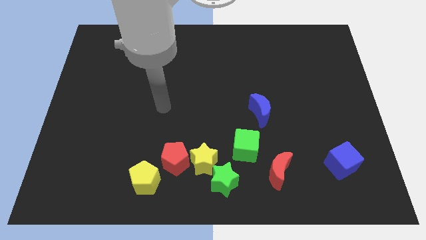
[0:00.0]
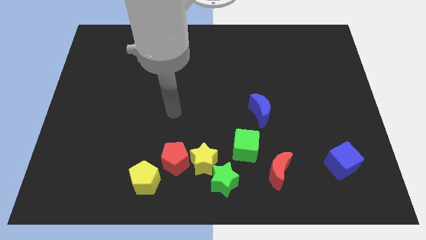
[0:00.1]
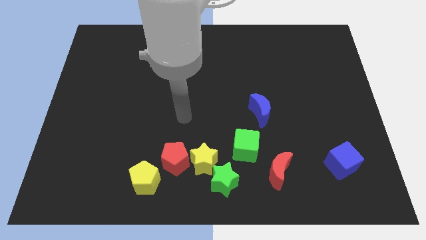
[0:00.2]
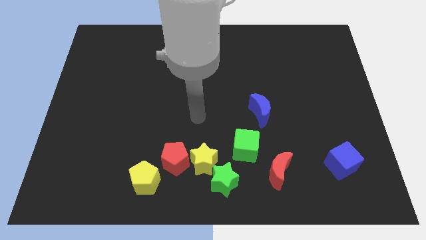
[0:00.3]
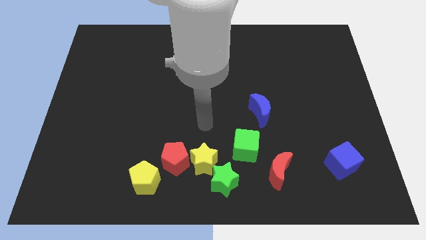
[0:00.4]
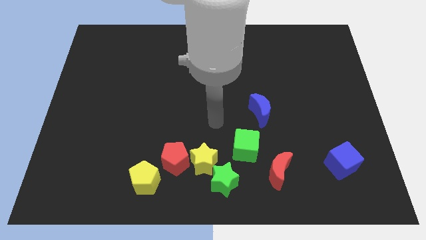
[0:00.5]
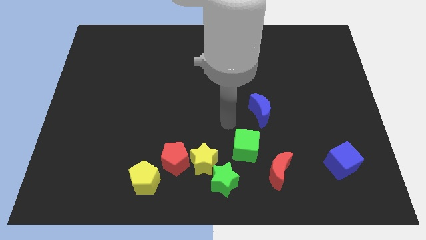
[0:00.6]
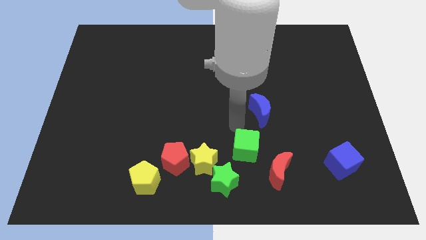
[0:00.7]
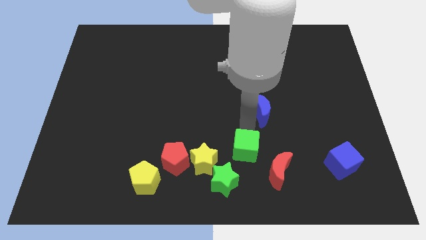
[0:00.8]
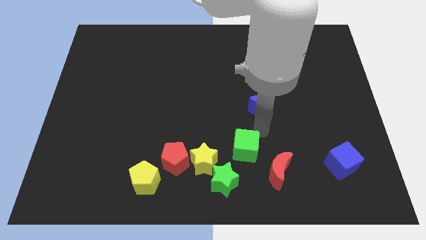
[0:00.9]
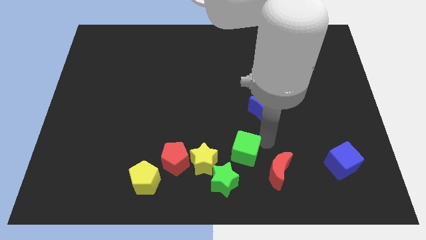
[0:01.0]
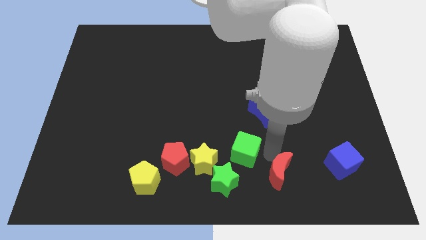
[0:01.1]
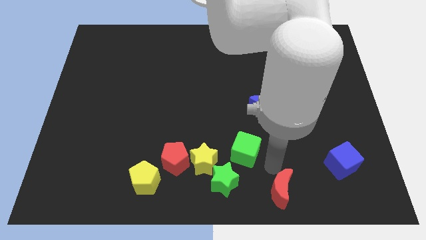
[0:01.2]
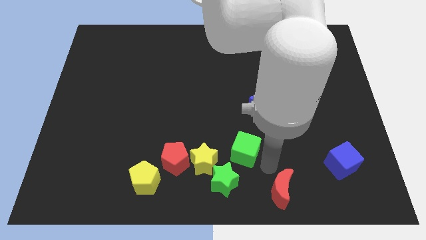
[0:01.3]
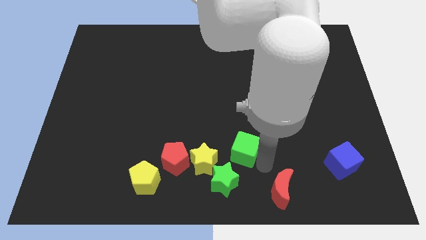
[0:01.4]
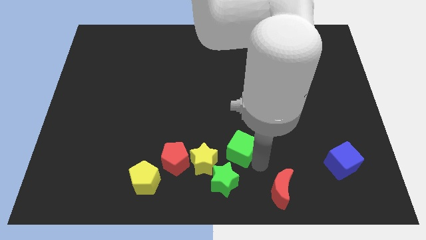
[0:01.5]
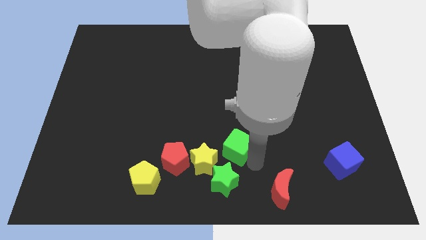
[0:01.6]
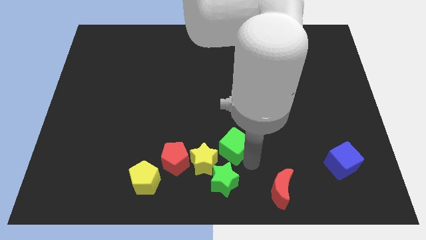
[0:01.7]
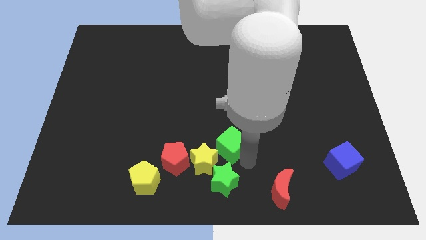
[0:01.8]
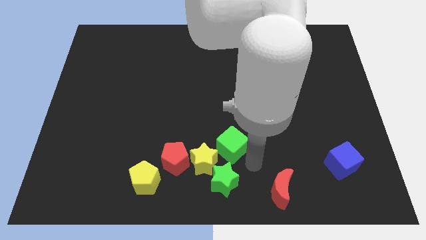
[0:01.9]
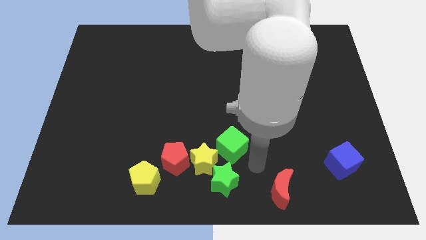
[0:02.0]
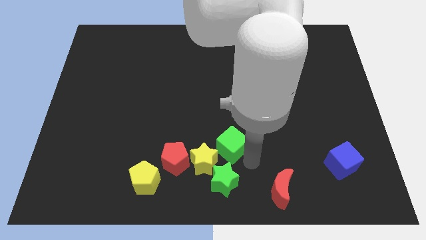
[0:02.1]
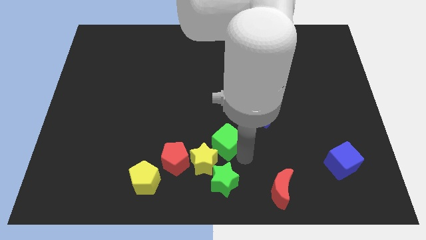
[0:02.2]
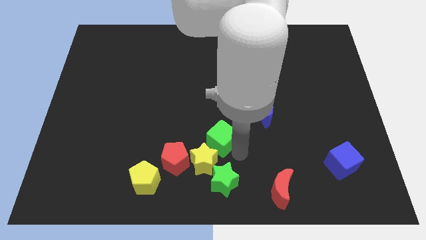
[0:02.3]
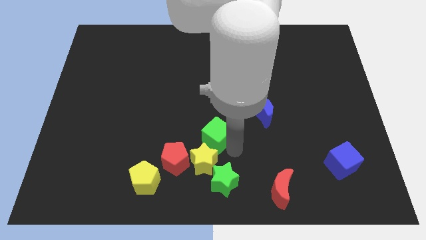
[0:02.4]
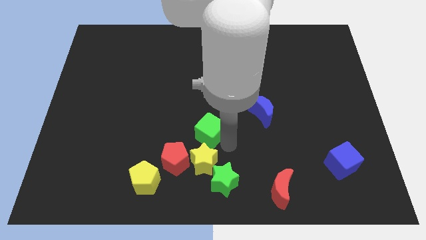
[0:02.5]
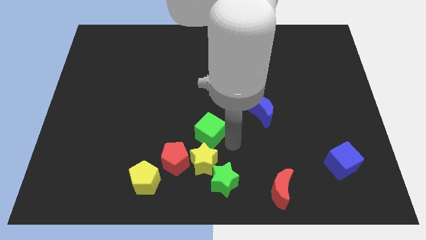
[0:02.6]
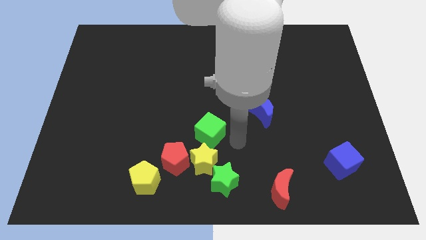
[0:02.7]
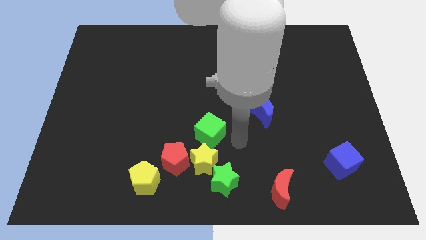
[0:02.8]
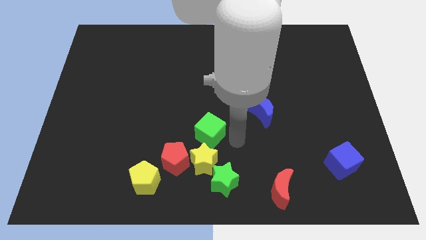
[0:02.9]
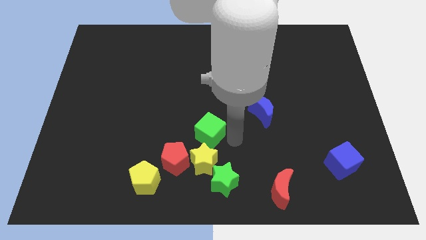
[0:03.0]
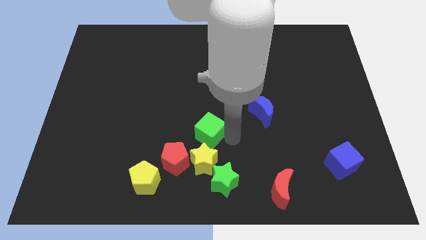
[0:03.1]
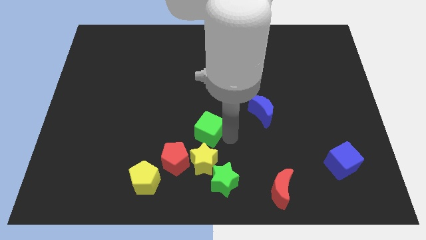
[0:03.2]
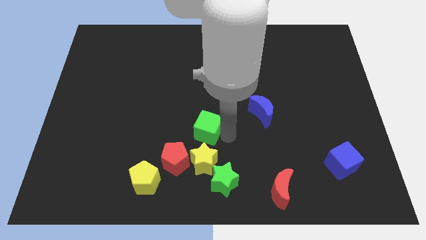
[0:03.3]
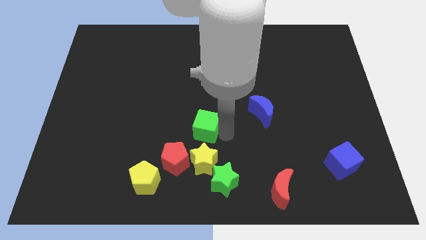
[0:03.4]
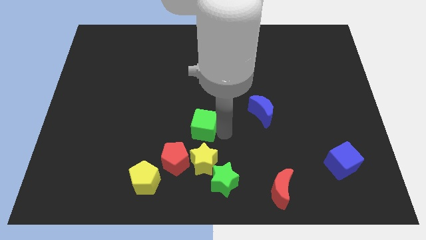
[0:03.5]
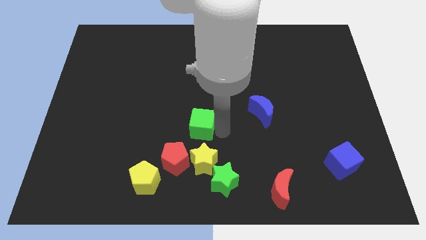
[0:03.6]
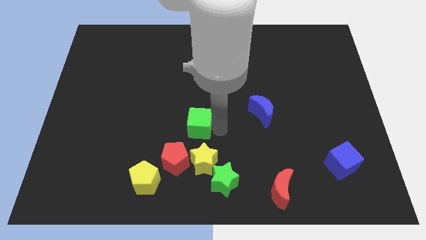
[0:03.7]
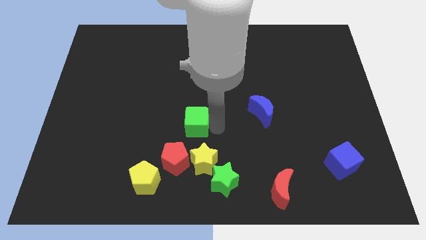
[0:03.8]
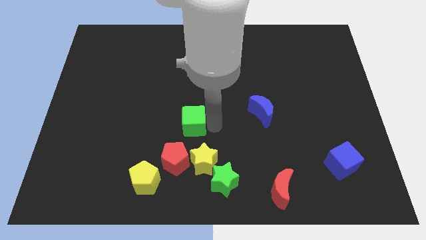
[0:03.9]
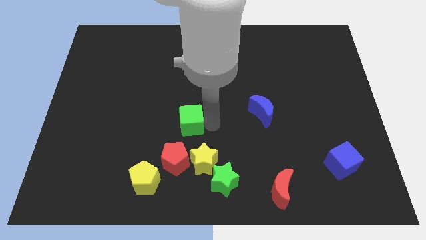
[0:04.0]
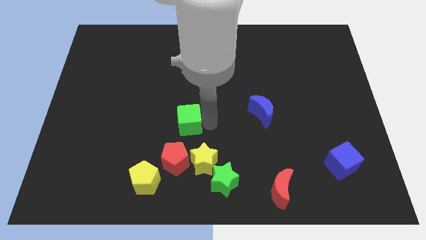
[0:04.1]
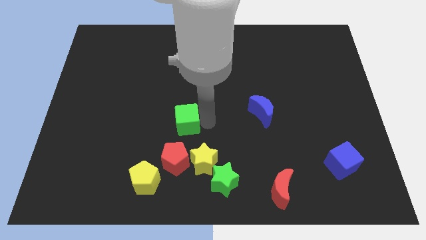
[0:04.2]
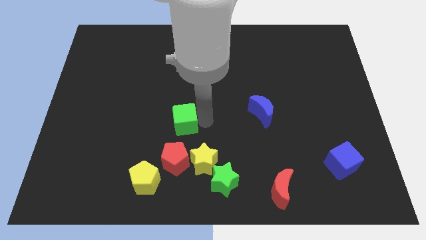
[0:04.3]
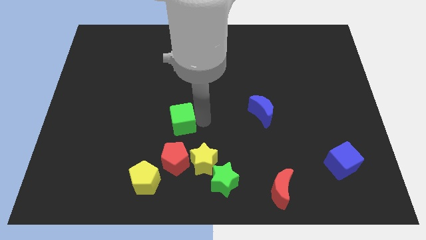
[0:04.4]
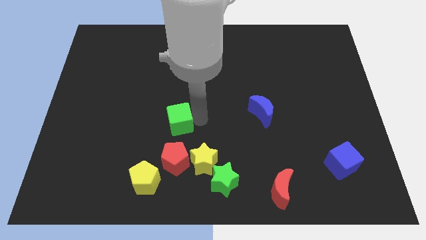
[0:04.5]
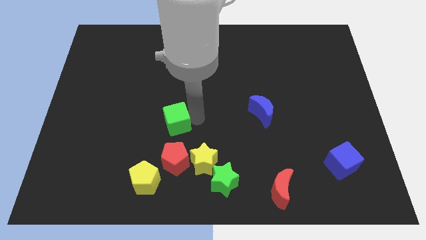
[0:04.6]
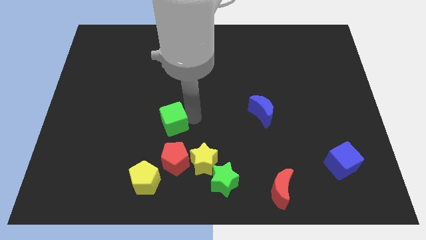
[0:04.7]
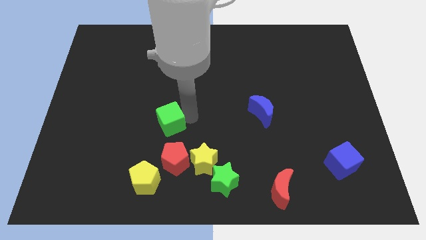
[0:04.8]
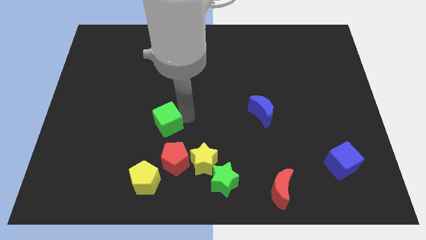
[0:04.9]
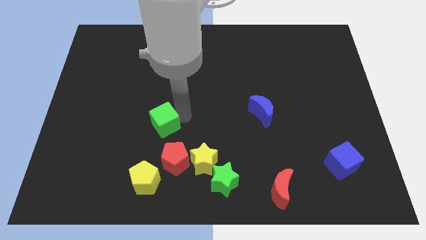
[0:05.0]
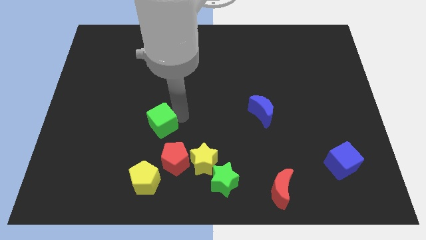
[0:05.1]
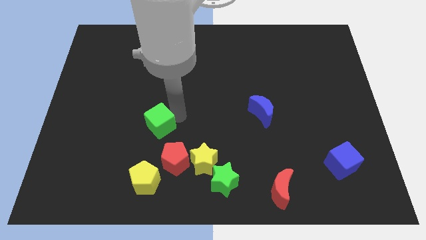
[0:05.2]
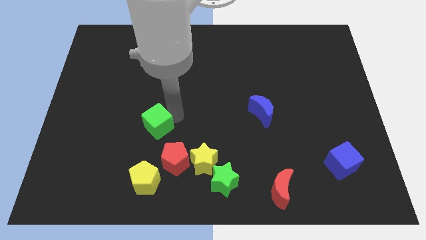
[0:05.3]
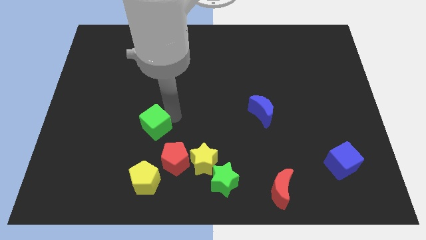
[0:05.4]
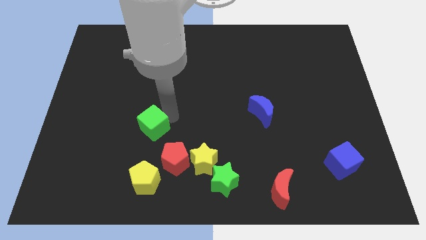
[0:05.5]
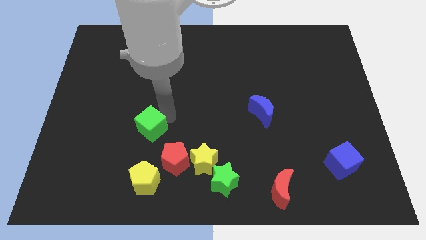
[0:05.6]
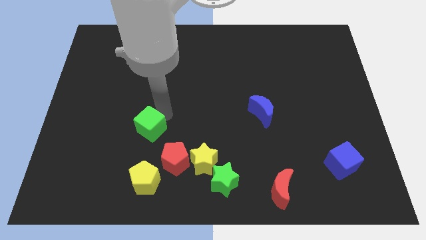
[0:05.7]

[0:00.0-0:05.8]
move the green cube left

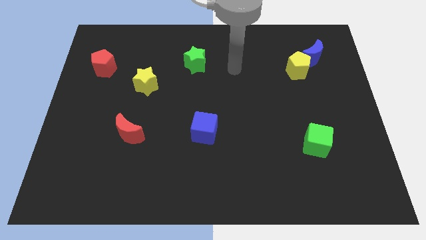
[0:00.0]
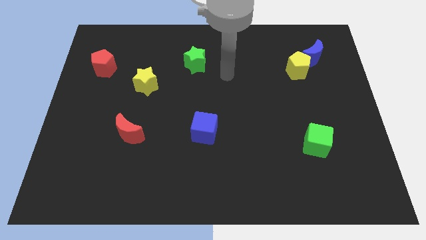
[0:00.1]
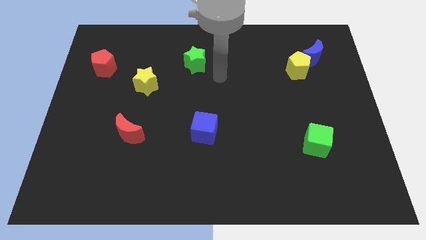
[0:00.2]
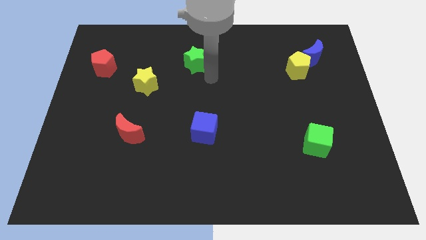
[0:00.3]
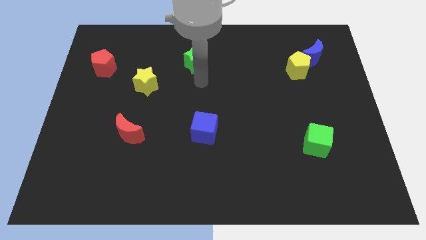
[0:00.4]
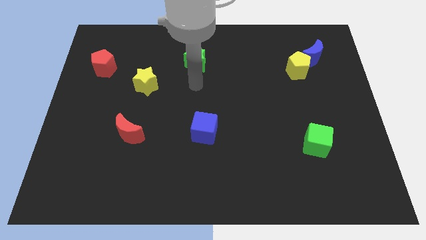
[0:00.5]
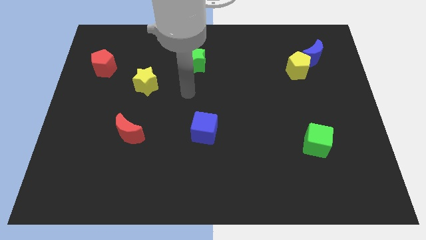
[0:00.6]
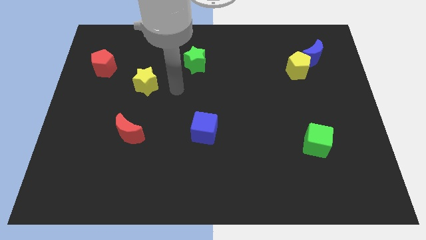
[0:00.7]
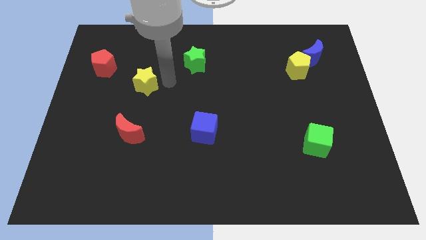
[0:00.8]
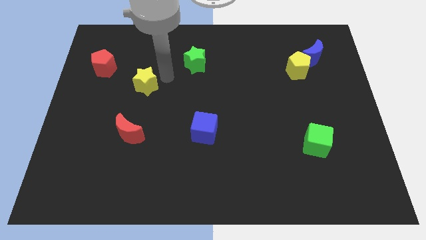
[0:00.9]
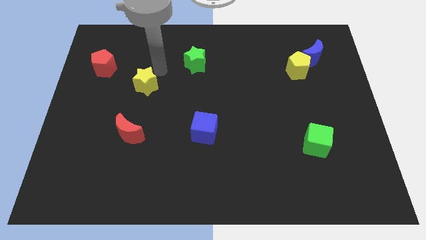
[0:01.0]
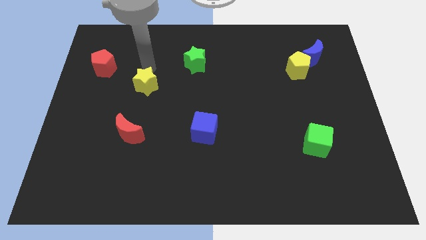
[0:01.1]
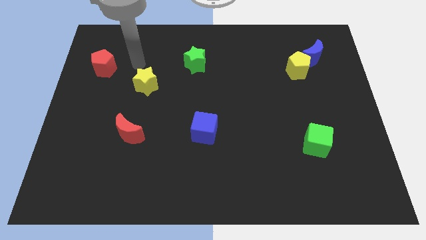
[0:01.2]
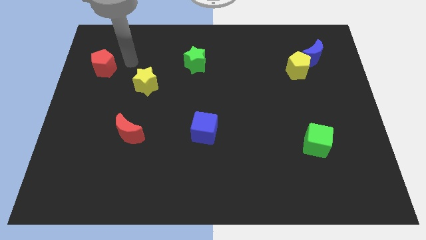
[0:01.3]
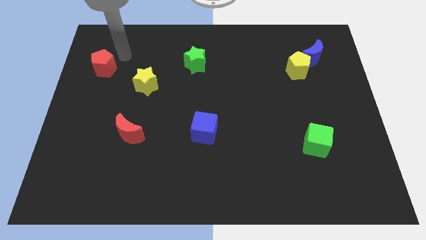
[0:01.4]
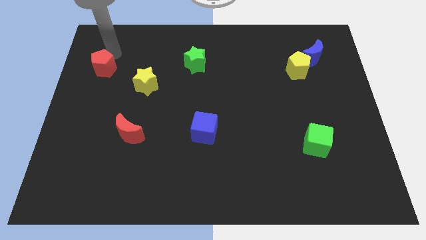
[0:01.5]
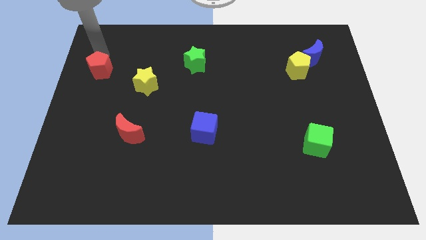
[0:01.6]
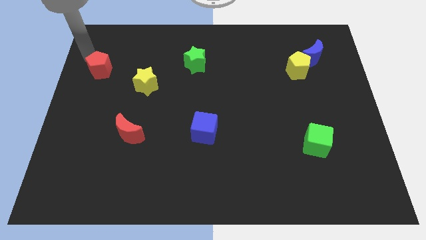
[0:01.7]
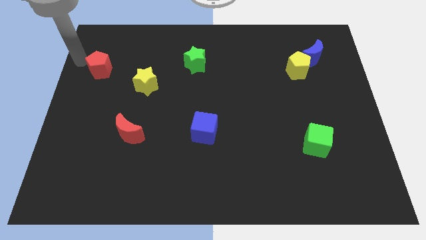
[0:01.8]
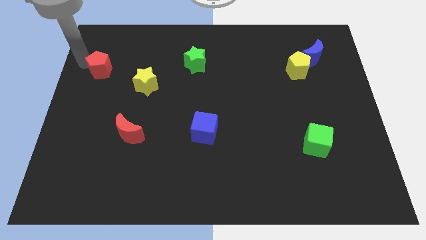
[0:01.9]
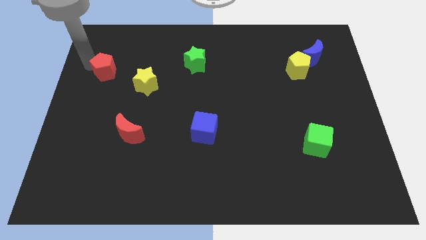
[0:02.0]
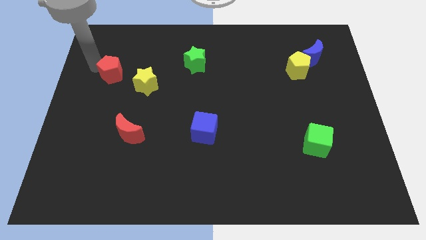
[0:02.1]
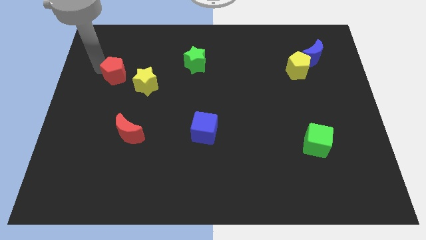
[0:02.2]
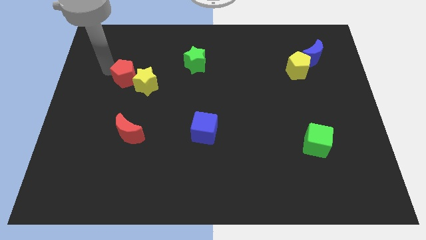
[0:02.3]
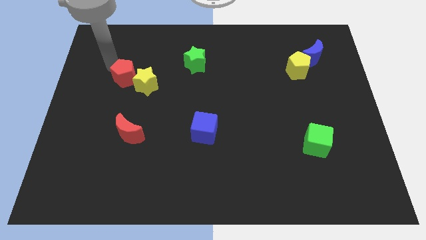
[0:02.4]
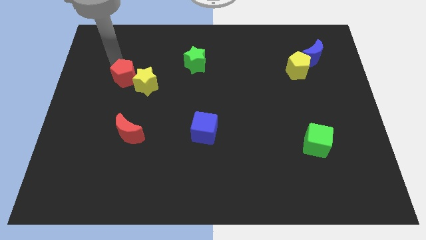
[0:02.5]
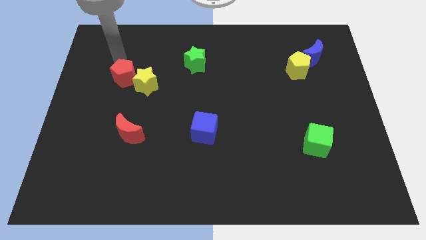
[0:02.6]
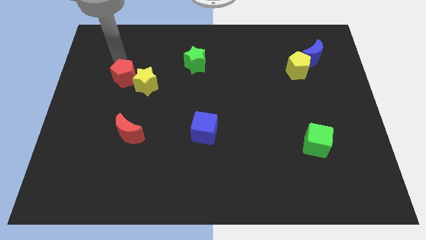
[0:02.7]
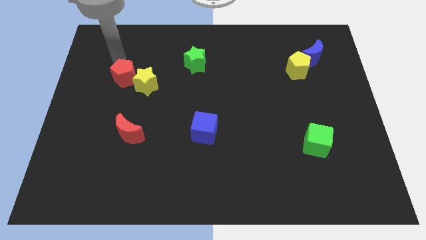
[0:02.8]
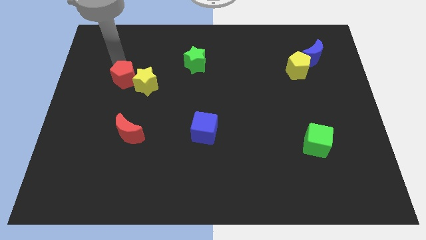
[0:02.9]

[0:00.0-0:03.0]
push the red pentagon a little bit downwards and to the right diagonally
